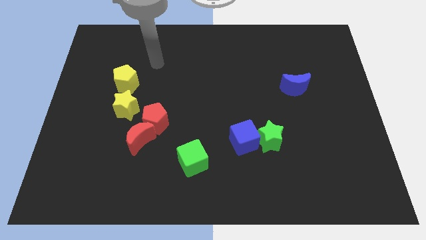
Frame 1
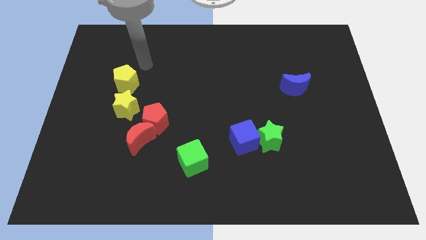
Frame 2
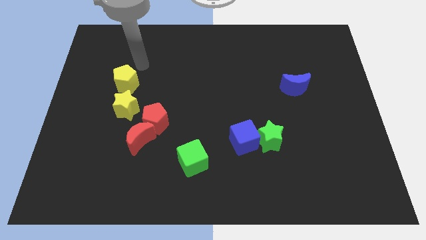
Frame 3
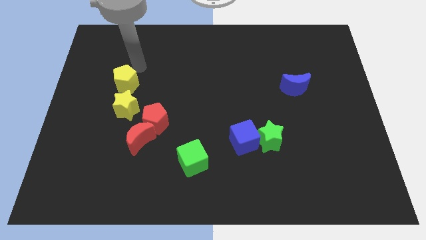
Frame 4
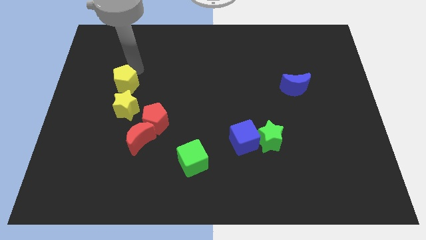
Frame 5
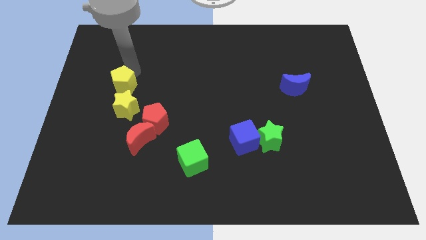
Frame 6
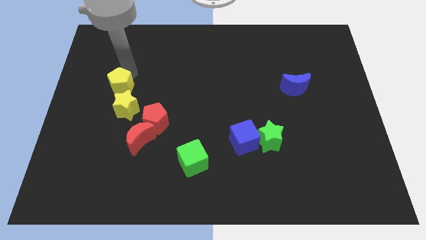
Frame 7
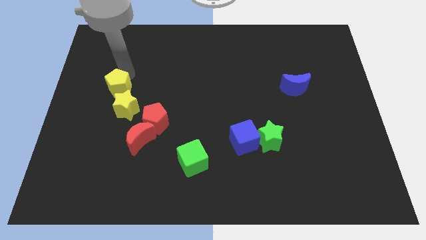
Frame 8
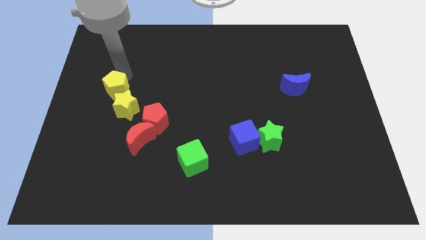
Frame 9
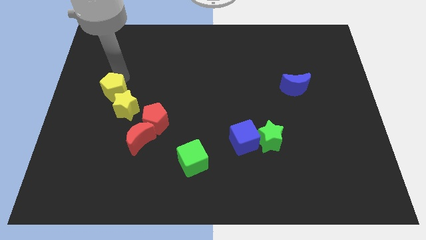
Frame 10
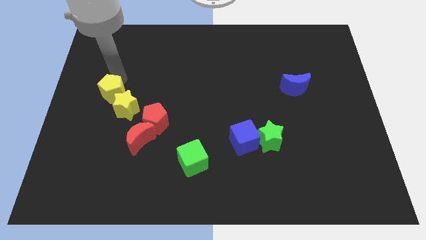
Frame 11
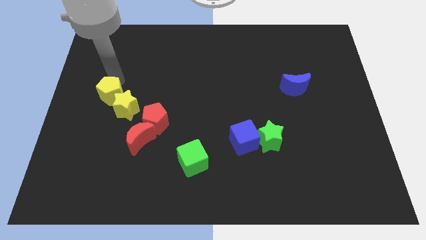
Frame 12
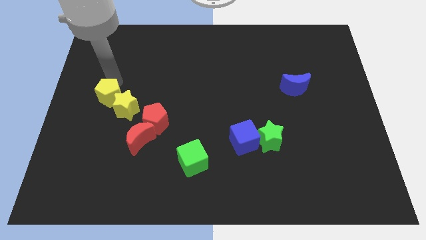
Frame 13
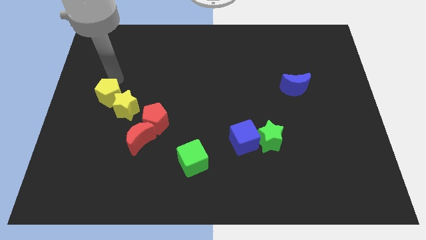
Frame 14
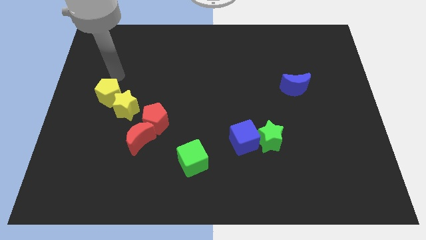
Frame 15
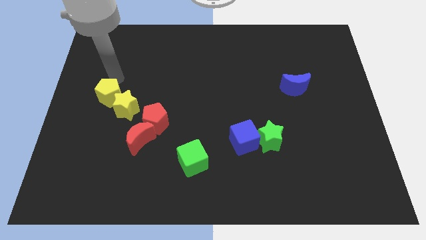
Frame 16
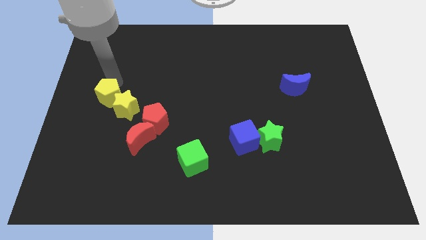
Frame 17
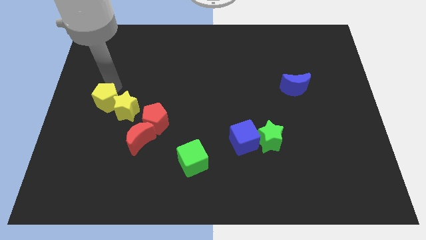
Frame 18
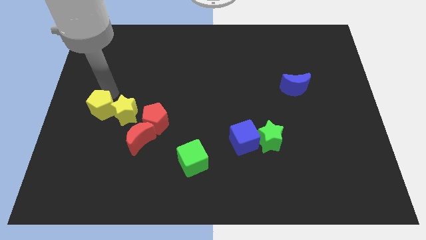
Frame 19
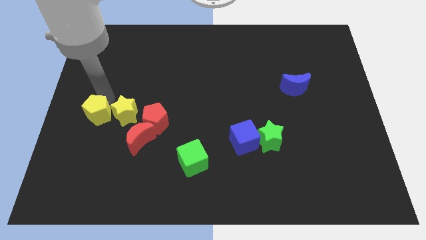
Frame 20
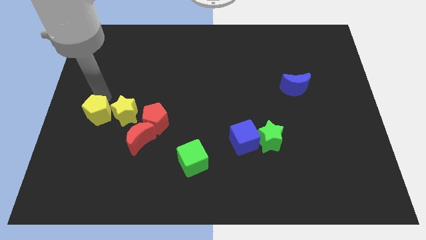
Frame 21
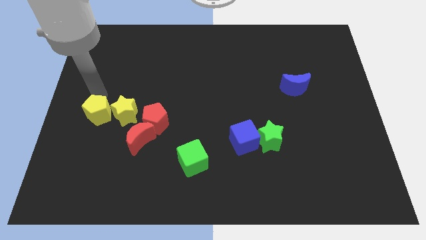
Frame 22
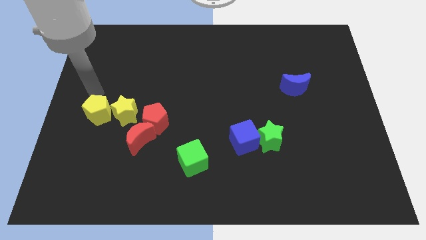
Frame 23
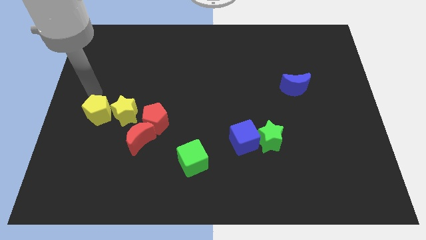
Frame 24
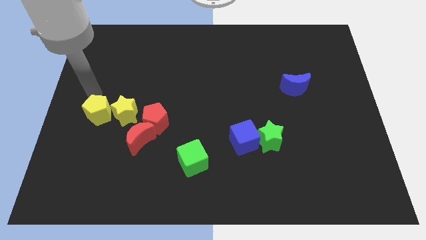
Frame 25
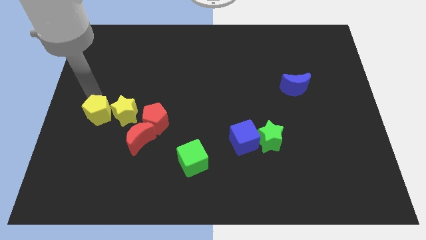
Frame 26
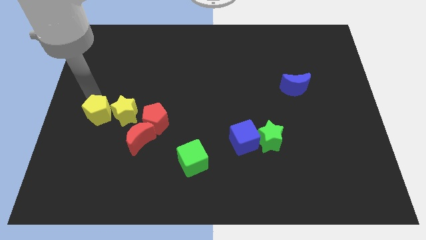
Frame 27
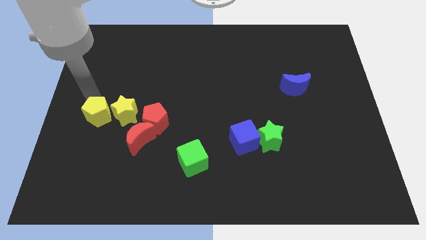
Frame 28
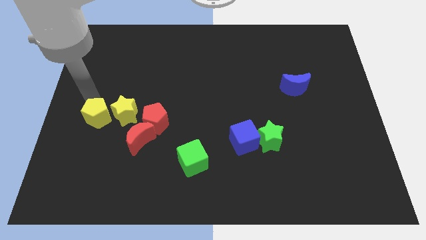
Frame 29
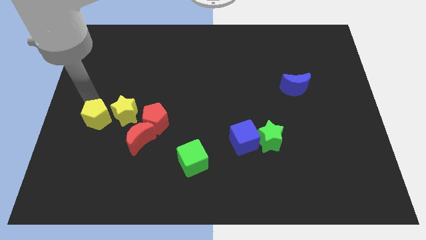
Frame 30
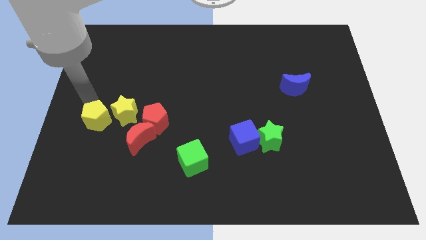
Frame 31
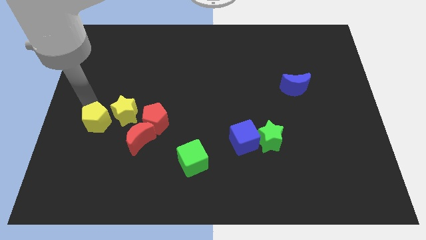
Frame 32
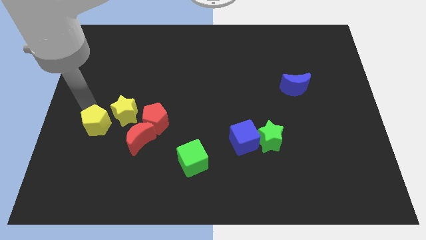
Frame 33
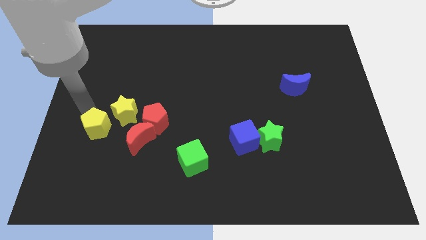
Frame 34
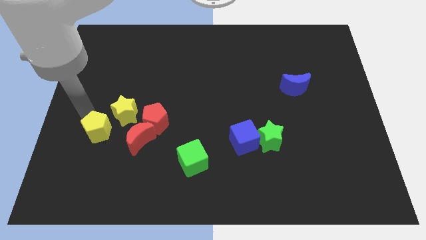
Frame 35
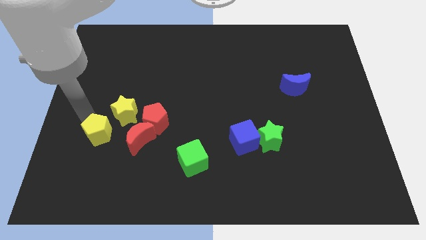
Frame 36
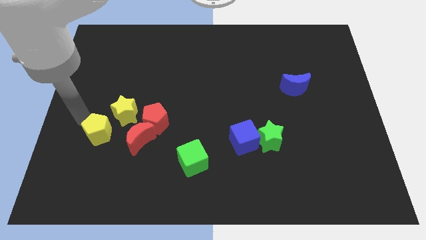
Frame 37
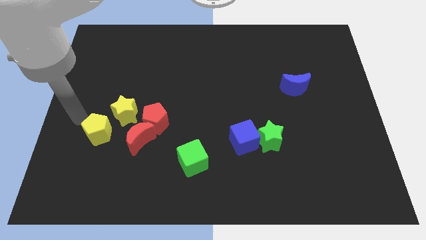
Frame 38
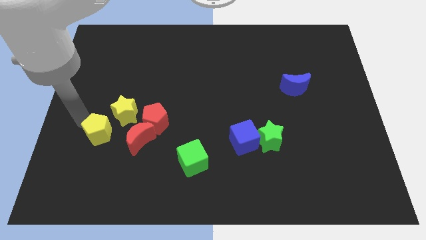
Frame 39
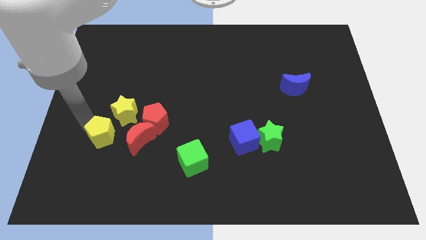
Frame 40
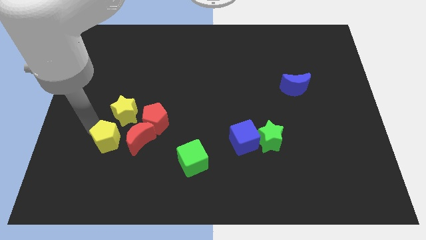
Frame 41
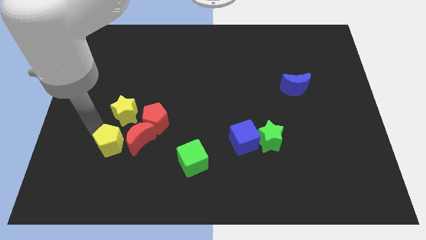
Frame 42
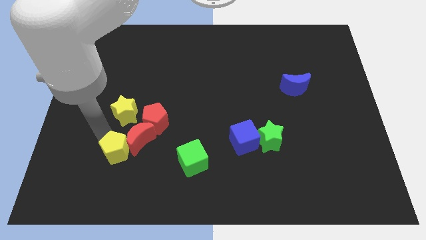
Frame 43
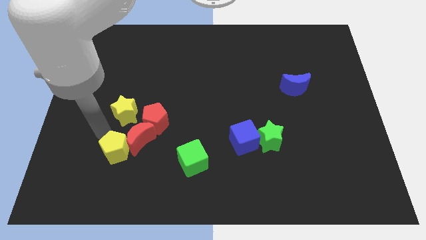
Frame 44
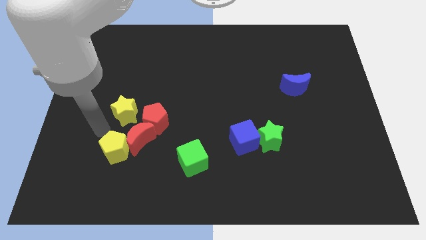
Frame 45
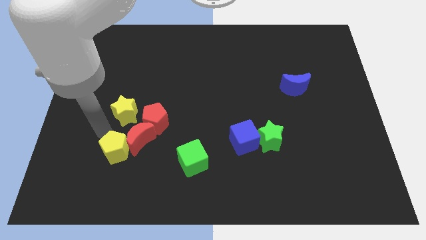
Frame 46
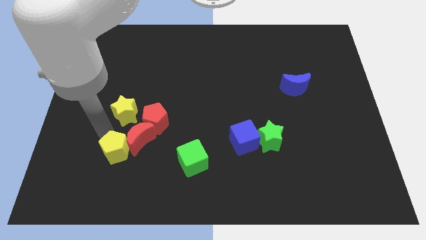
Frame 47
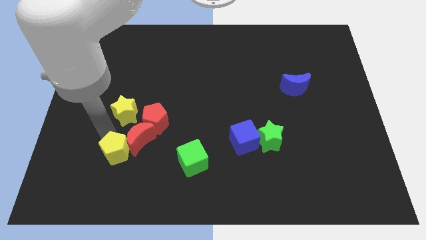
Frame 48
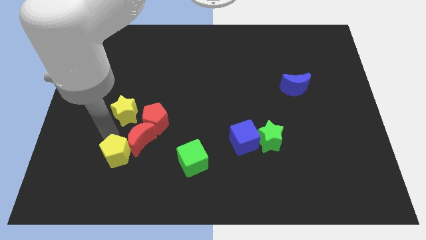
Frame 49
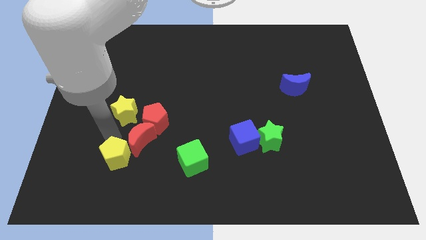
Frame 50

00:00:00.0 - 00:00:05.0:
slide the yellow pentagon to the bottom side of the red moon

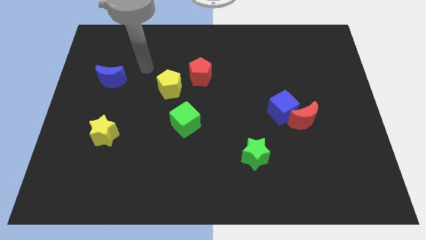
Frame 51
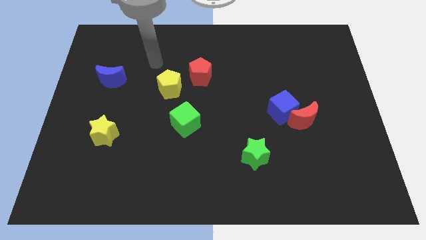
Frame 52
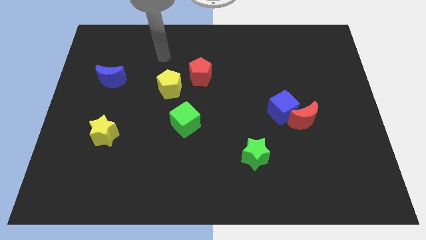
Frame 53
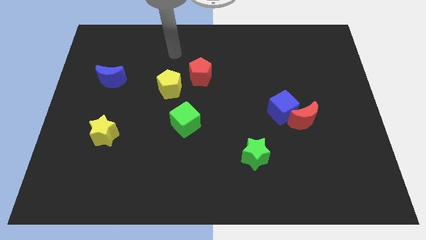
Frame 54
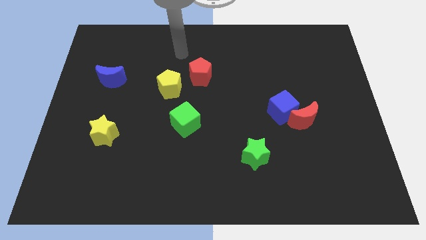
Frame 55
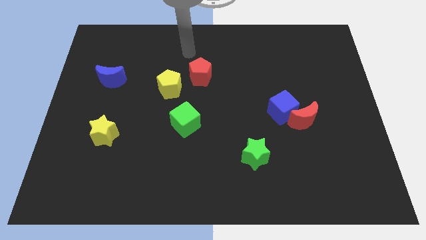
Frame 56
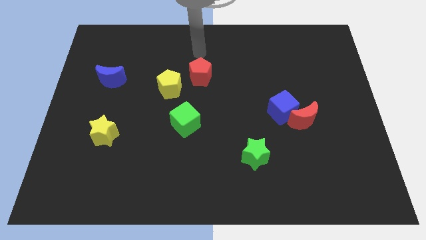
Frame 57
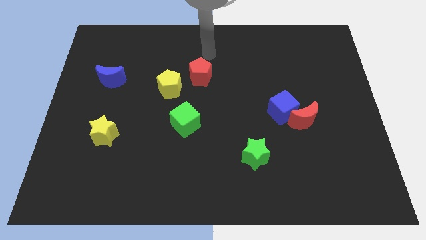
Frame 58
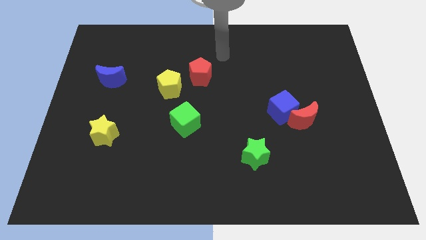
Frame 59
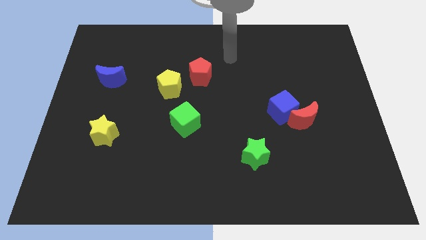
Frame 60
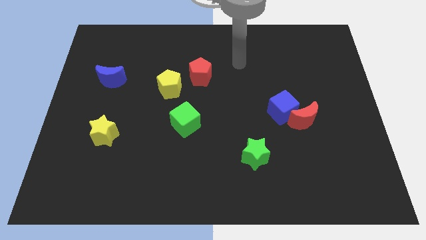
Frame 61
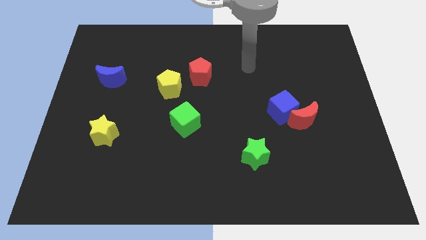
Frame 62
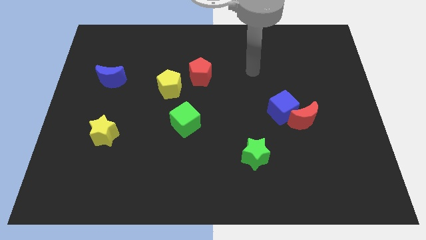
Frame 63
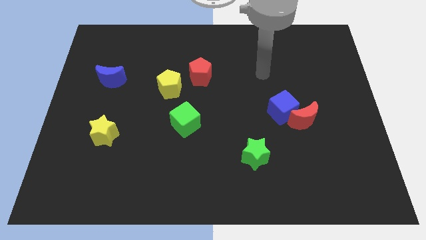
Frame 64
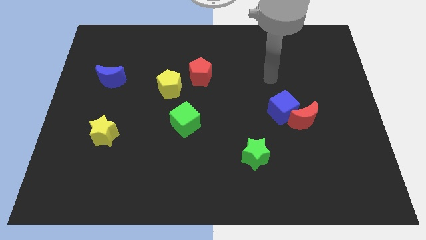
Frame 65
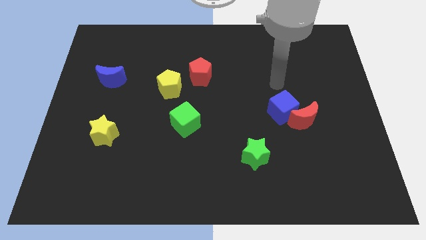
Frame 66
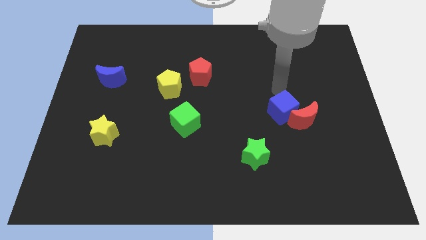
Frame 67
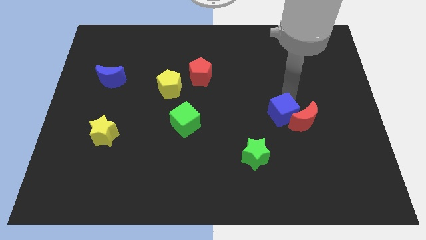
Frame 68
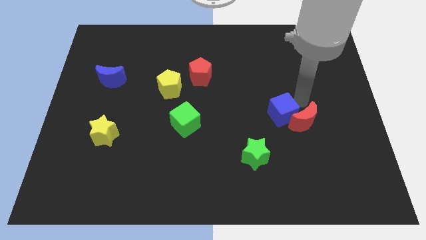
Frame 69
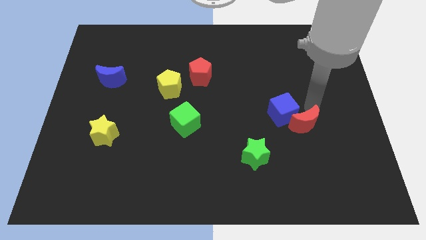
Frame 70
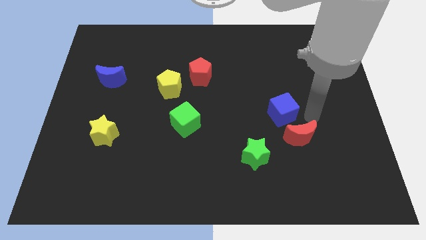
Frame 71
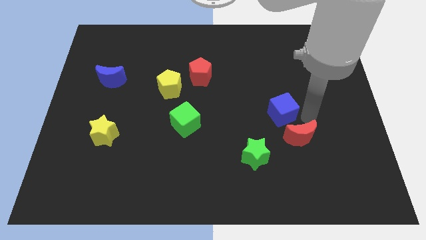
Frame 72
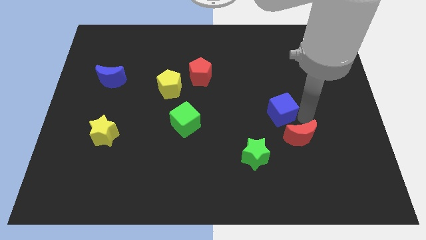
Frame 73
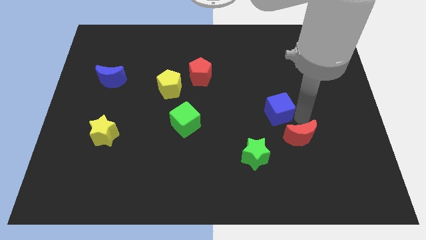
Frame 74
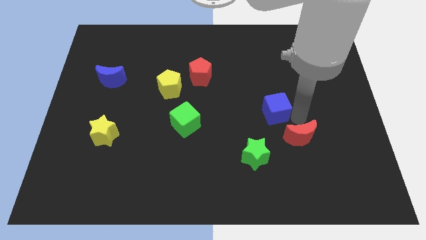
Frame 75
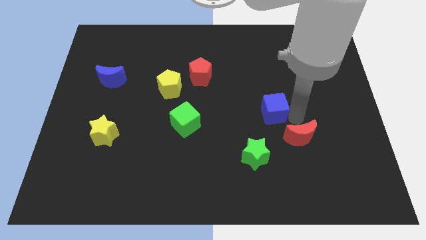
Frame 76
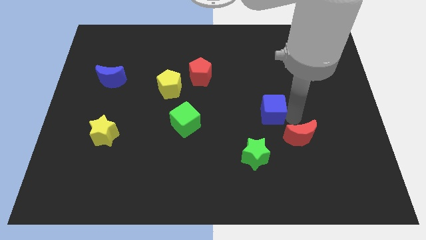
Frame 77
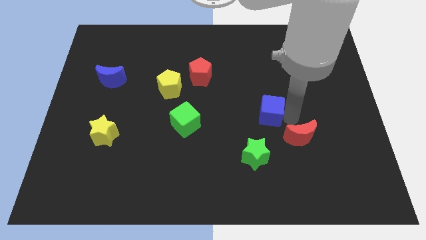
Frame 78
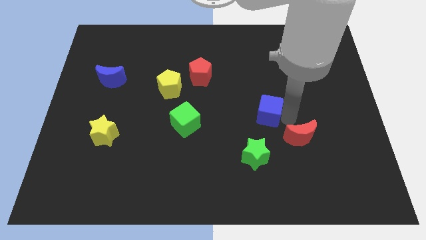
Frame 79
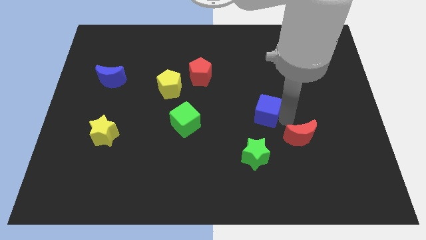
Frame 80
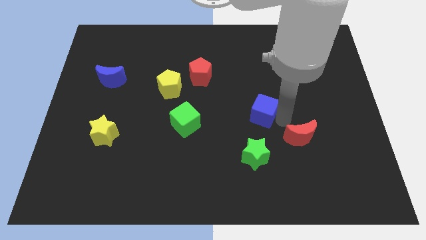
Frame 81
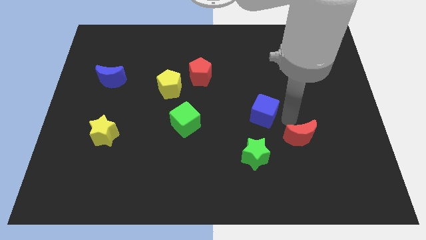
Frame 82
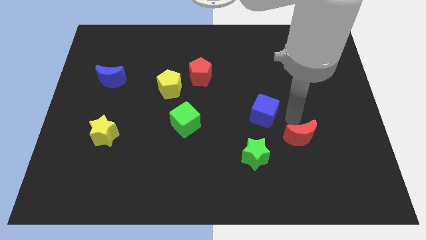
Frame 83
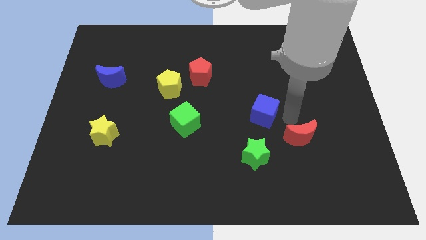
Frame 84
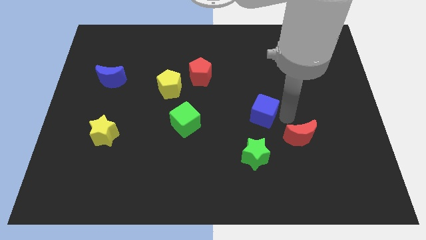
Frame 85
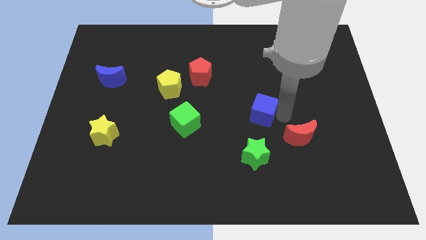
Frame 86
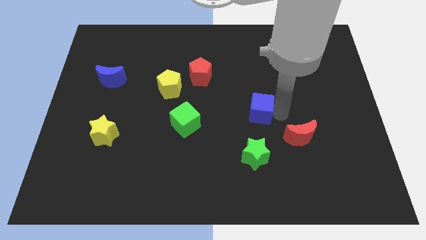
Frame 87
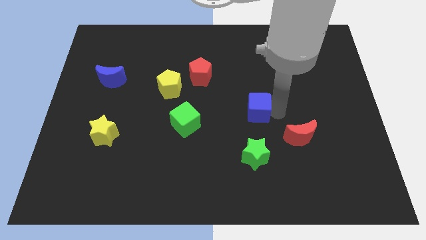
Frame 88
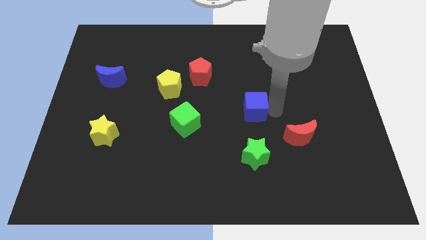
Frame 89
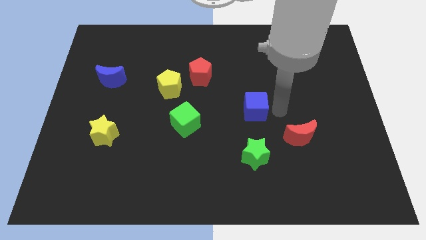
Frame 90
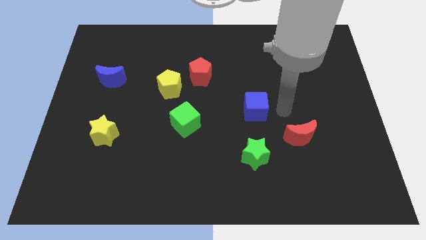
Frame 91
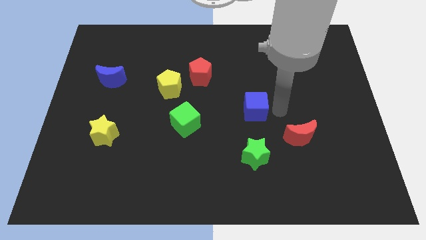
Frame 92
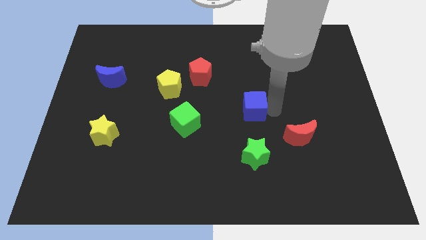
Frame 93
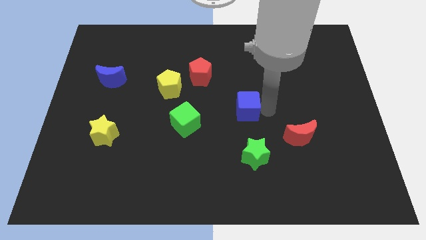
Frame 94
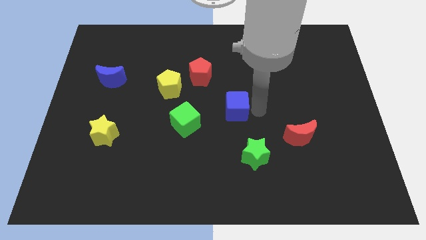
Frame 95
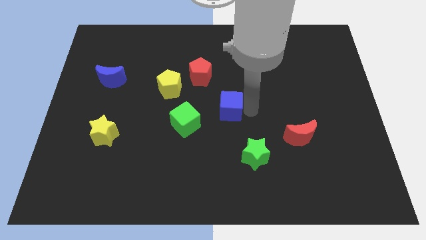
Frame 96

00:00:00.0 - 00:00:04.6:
put the blue cube to the top right side of the green cube
